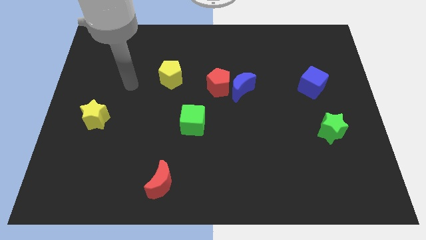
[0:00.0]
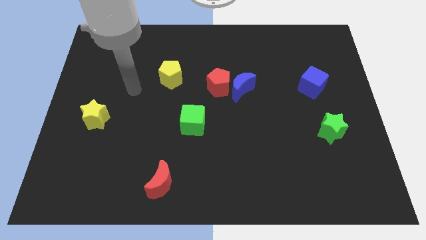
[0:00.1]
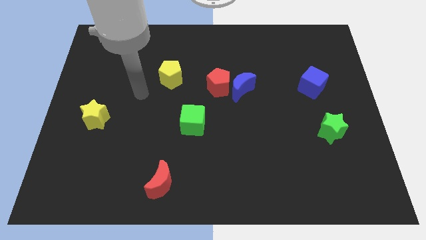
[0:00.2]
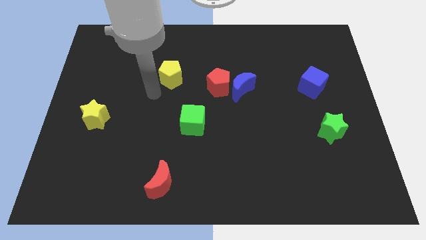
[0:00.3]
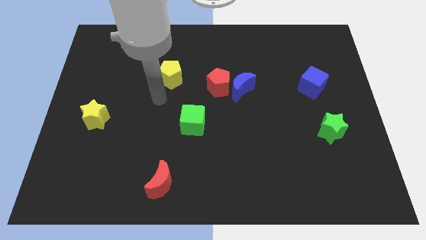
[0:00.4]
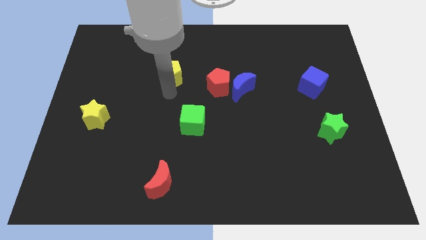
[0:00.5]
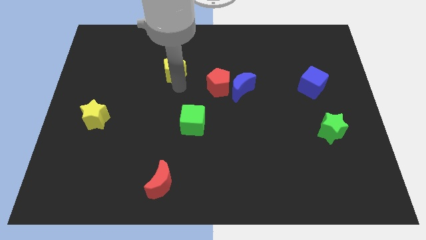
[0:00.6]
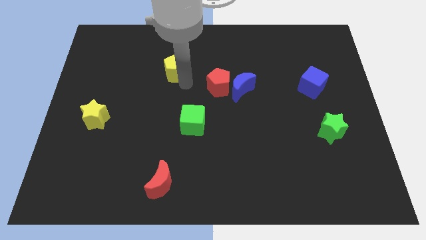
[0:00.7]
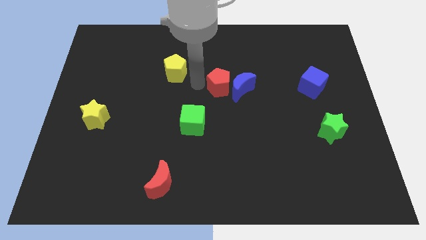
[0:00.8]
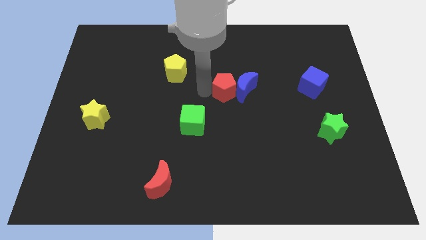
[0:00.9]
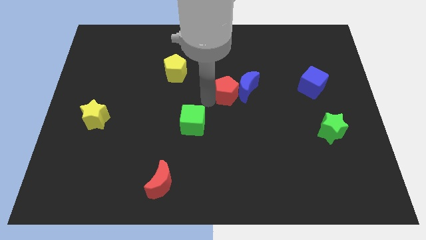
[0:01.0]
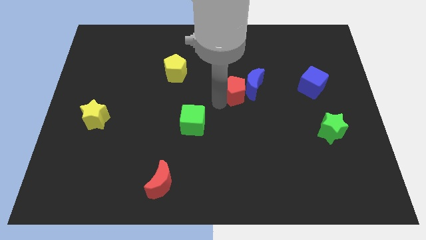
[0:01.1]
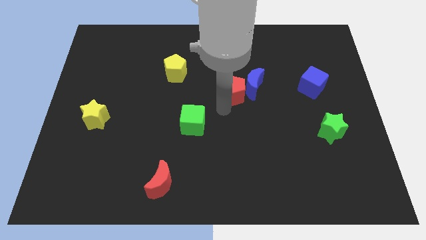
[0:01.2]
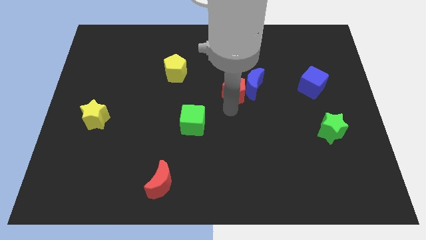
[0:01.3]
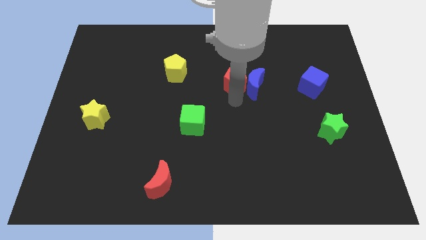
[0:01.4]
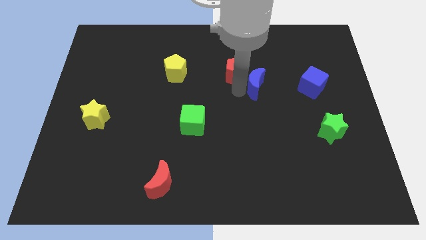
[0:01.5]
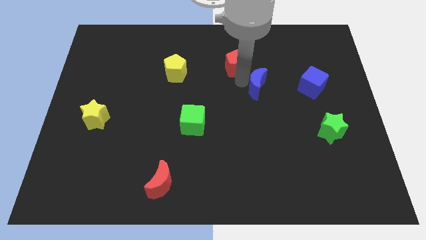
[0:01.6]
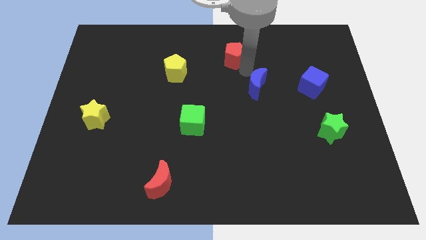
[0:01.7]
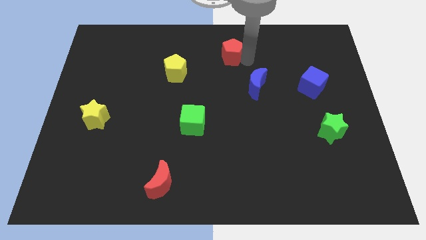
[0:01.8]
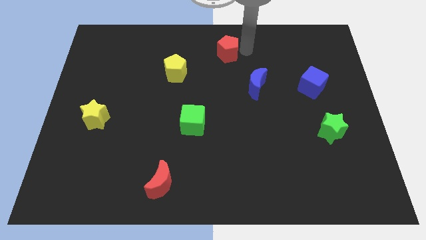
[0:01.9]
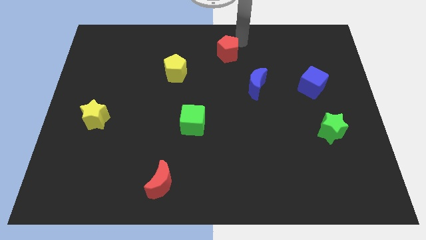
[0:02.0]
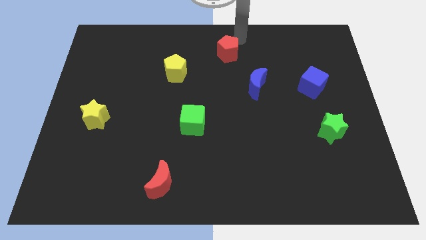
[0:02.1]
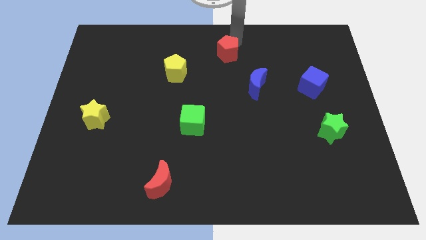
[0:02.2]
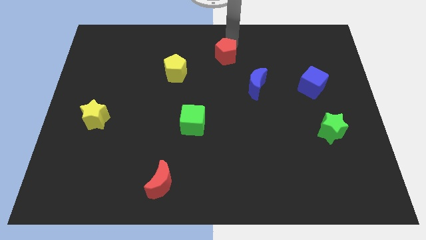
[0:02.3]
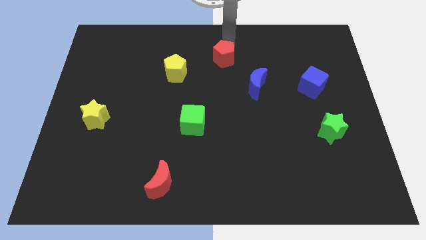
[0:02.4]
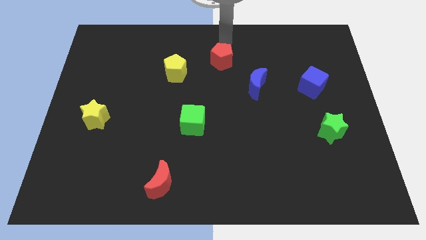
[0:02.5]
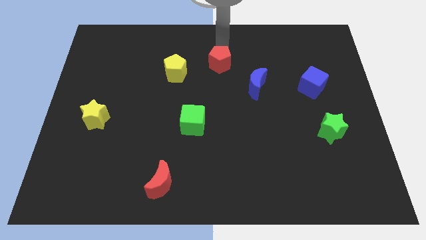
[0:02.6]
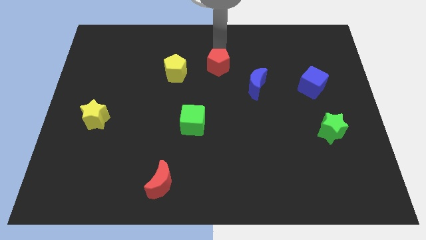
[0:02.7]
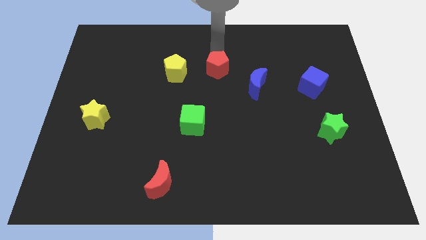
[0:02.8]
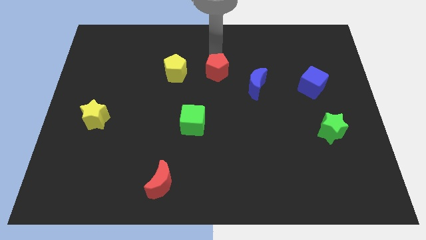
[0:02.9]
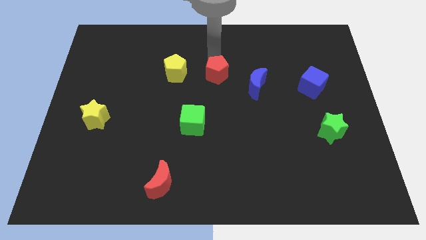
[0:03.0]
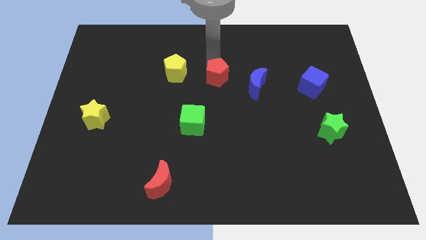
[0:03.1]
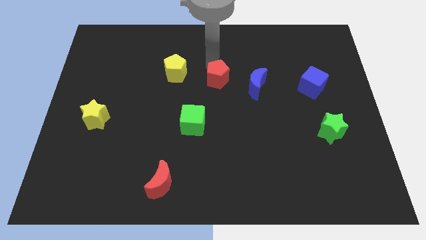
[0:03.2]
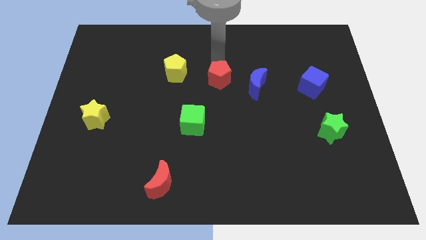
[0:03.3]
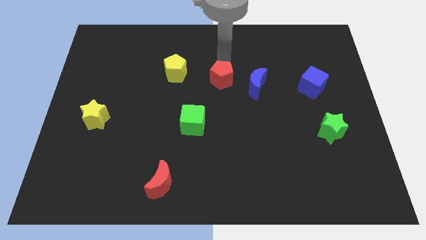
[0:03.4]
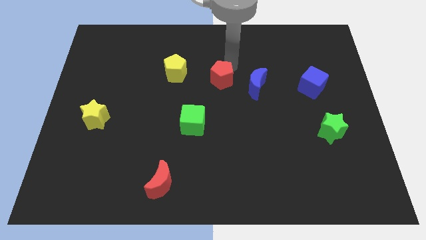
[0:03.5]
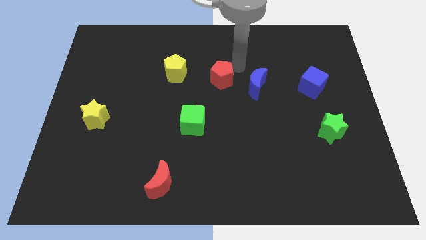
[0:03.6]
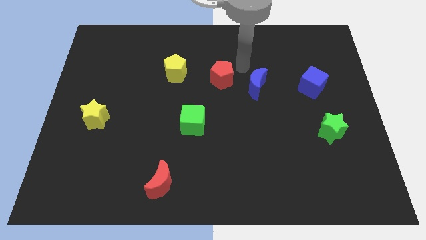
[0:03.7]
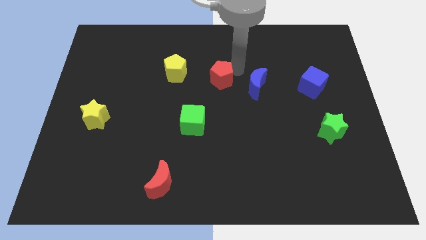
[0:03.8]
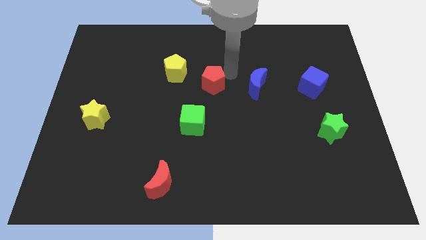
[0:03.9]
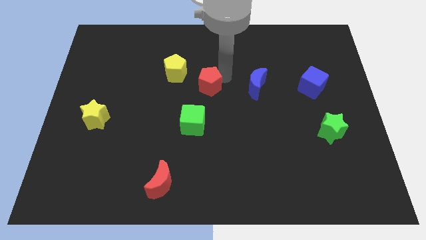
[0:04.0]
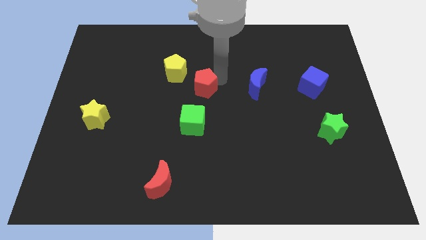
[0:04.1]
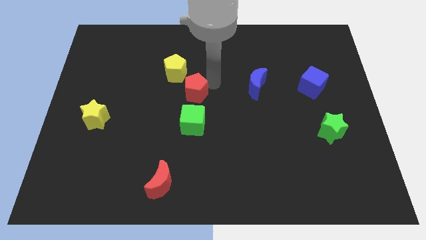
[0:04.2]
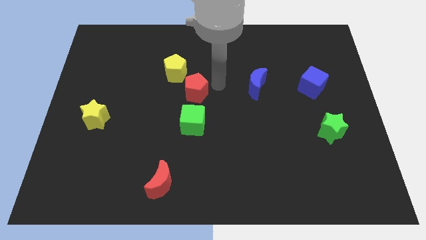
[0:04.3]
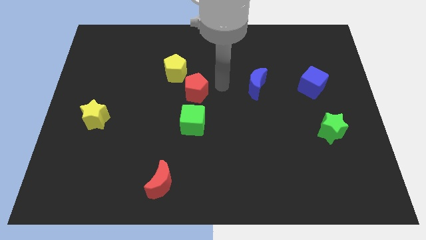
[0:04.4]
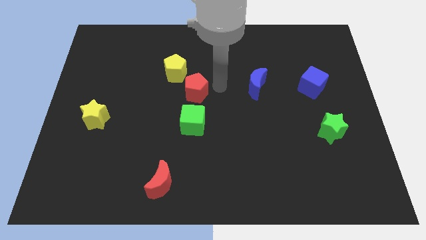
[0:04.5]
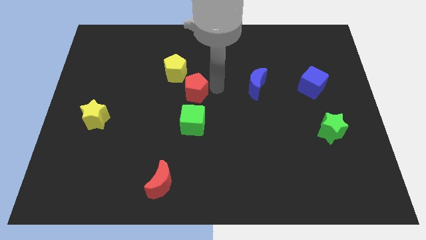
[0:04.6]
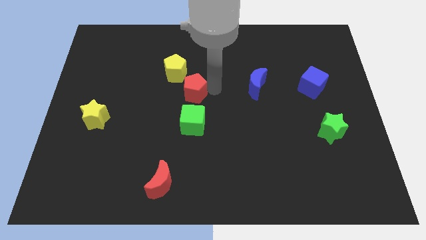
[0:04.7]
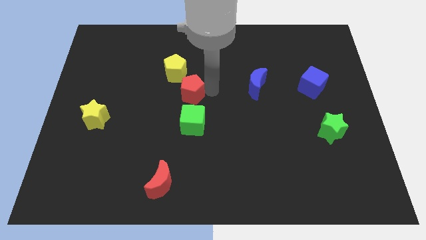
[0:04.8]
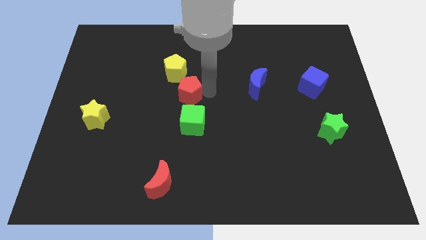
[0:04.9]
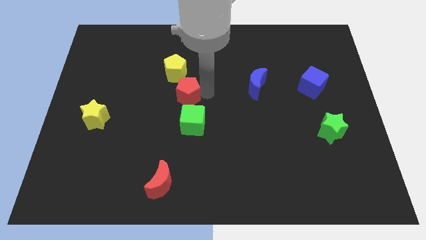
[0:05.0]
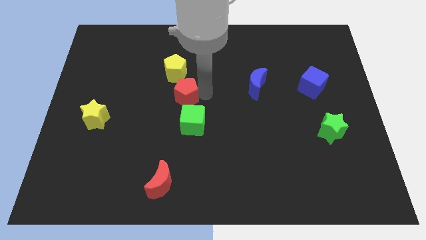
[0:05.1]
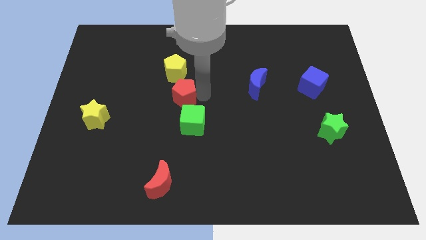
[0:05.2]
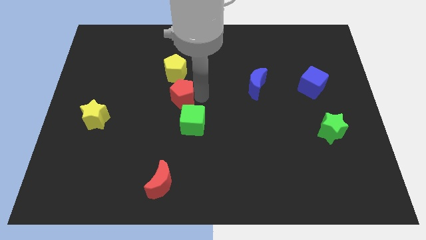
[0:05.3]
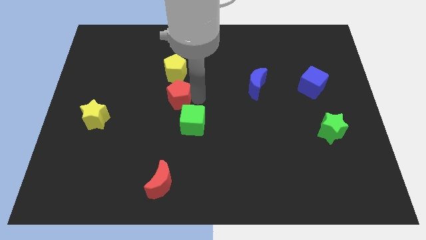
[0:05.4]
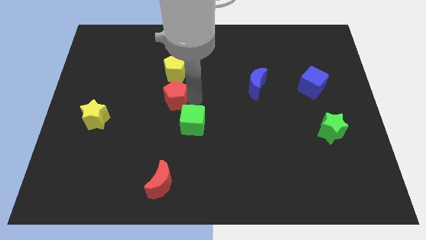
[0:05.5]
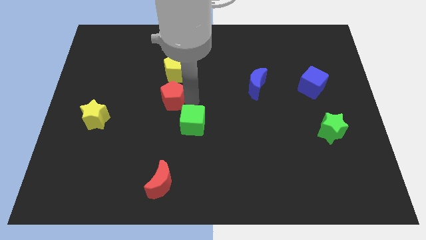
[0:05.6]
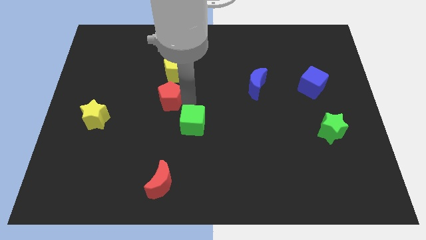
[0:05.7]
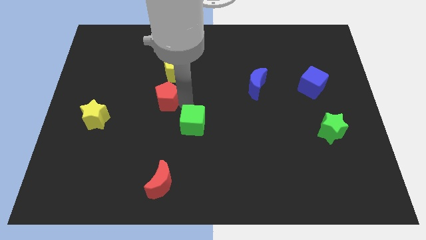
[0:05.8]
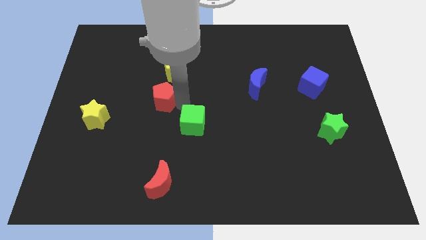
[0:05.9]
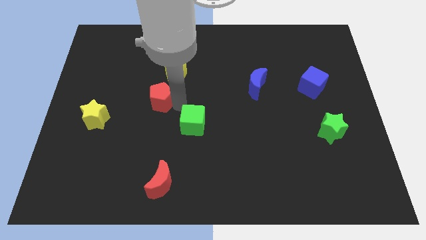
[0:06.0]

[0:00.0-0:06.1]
put the red pentagon to the bottom left of the yellow pentagon

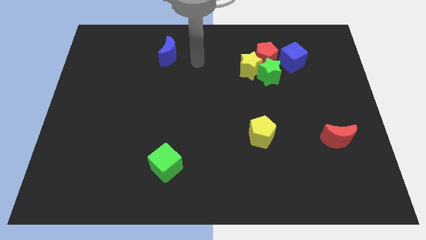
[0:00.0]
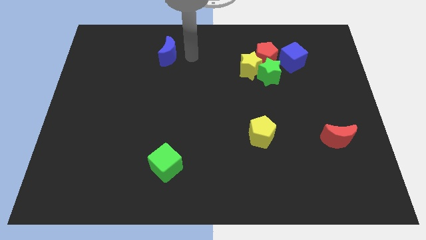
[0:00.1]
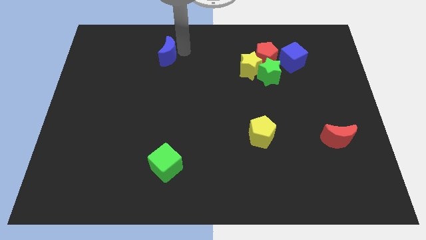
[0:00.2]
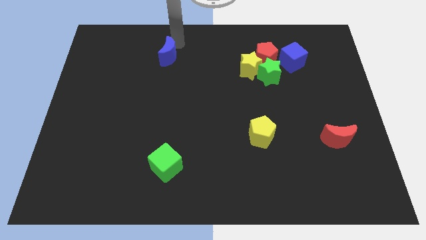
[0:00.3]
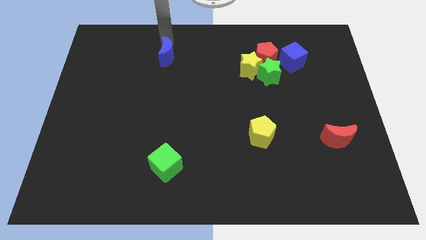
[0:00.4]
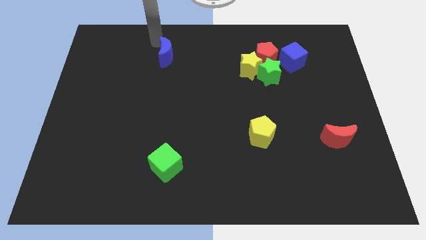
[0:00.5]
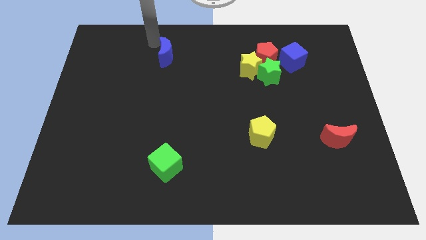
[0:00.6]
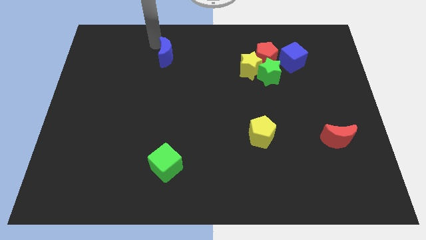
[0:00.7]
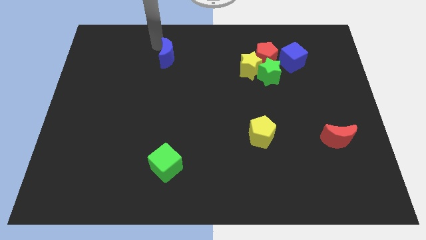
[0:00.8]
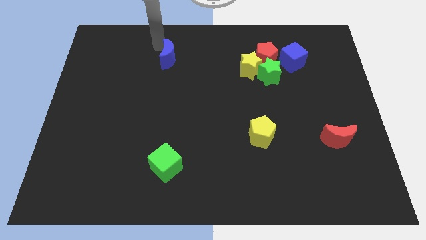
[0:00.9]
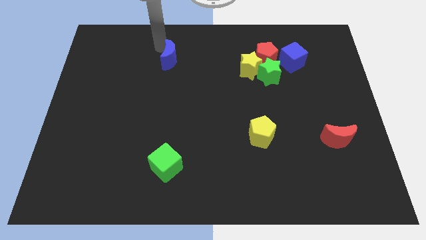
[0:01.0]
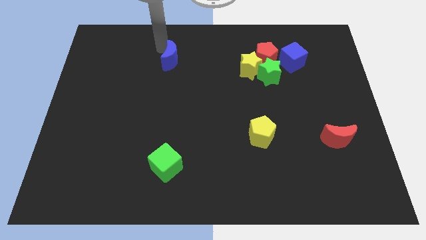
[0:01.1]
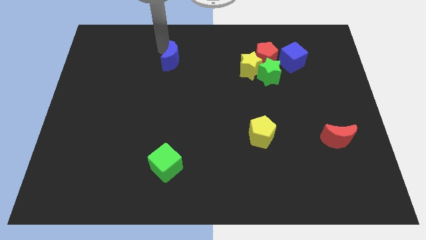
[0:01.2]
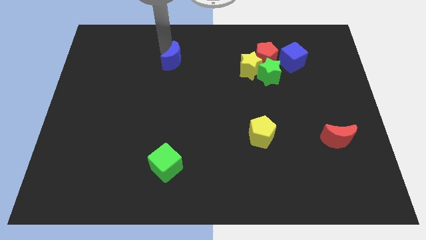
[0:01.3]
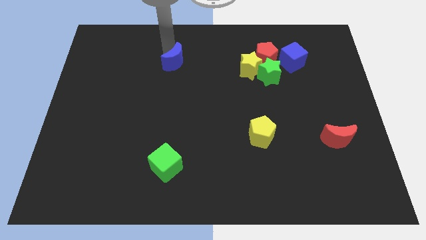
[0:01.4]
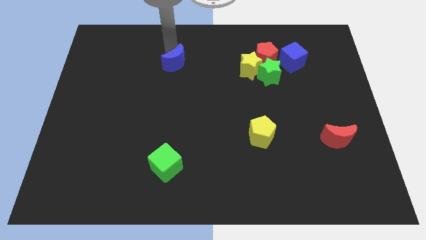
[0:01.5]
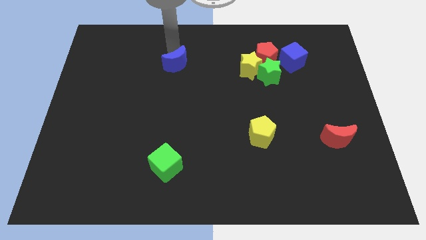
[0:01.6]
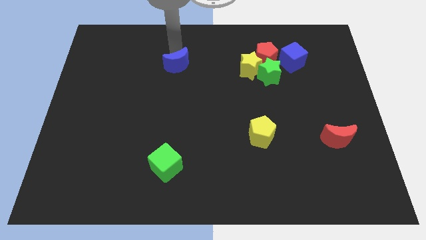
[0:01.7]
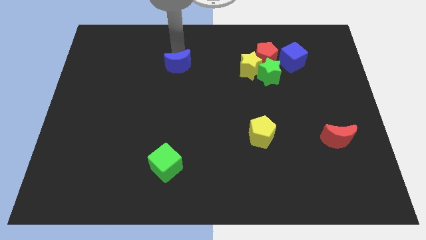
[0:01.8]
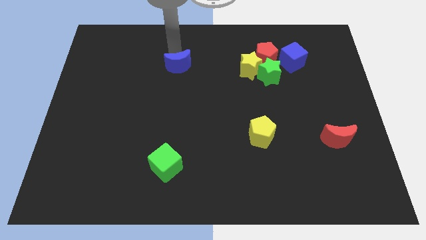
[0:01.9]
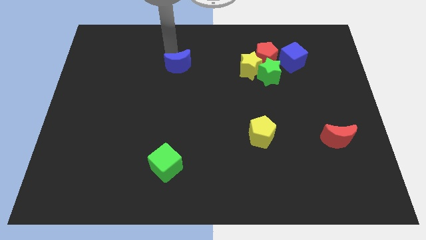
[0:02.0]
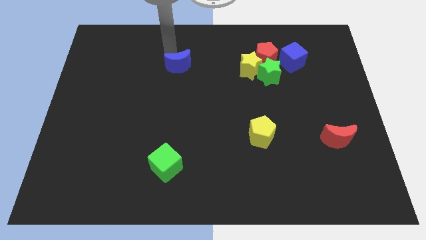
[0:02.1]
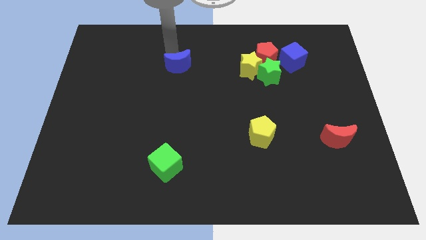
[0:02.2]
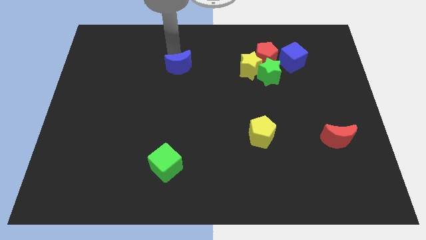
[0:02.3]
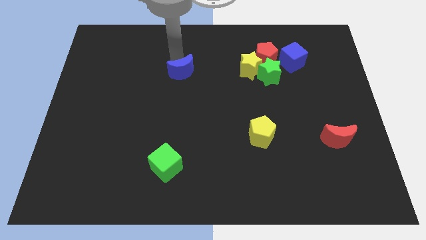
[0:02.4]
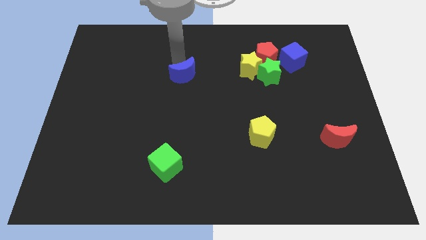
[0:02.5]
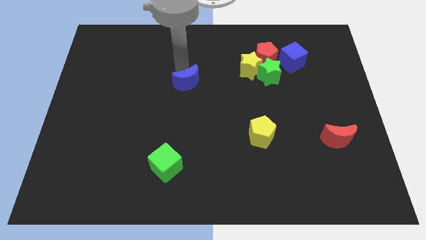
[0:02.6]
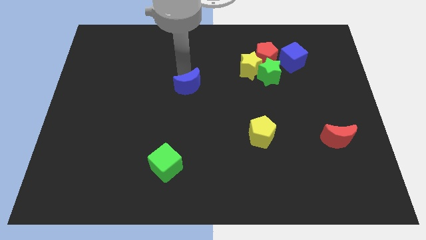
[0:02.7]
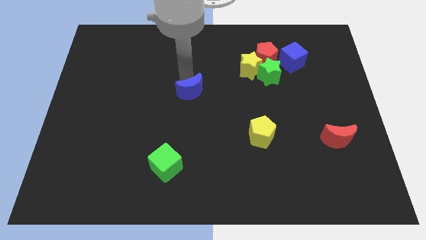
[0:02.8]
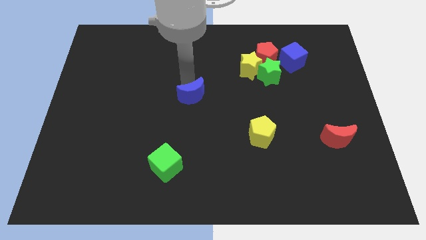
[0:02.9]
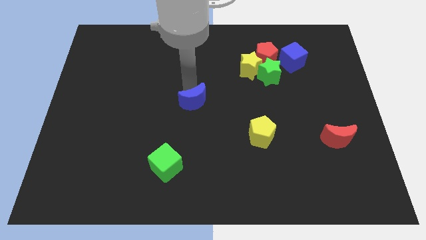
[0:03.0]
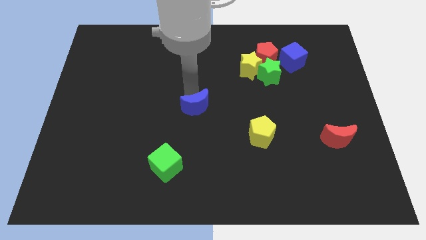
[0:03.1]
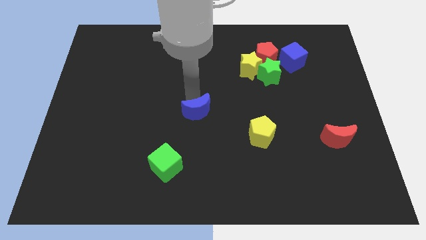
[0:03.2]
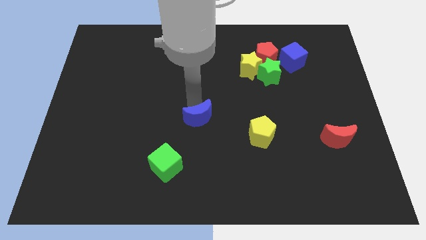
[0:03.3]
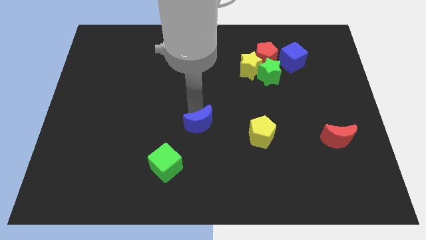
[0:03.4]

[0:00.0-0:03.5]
move the blue moon just left of the yellow pentagon
